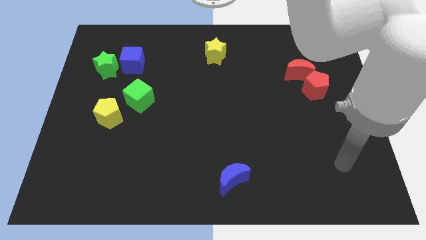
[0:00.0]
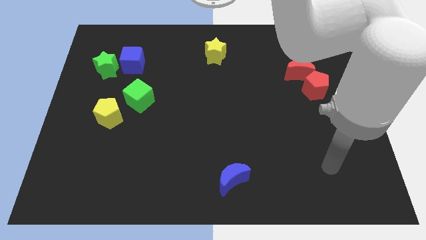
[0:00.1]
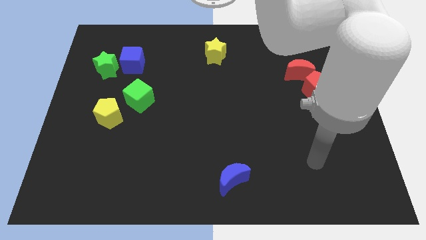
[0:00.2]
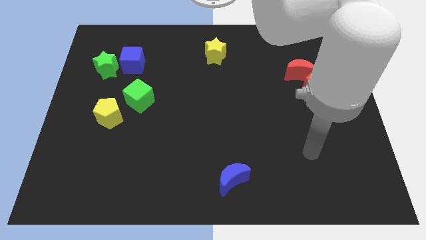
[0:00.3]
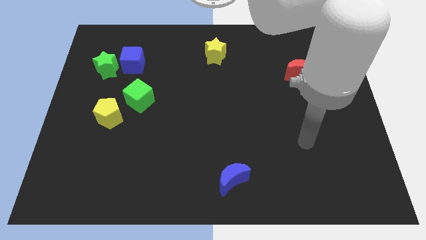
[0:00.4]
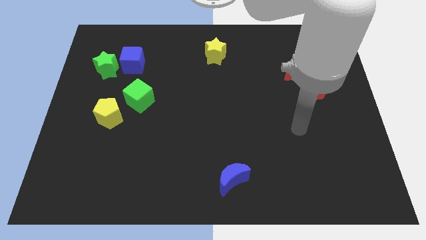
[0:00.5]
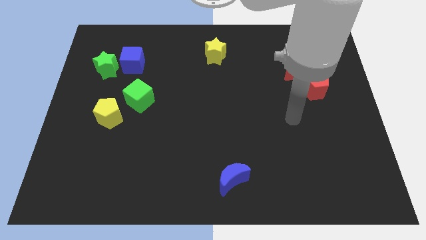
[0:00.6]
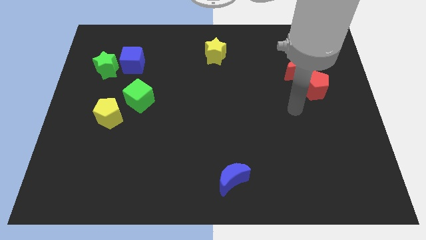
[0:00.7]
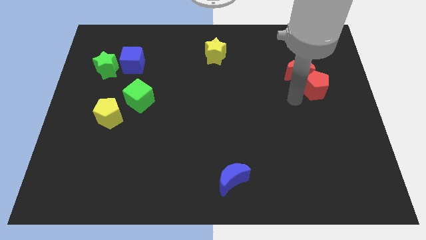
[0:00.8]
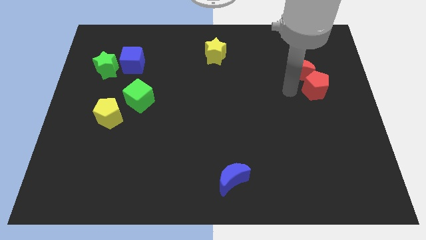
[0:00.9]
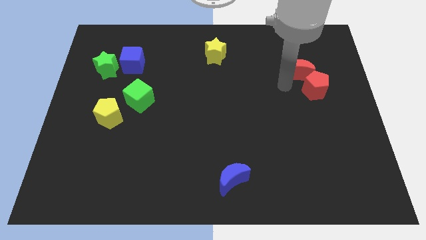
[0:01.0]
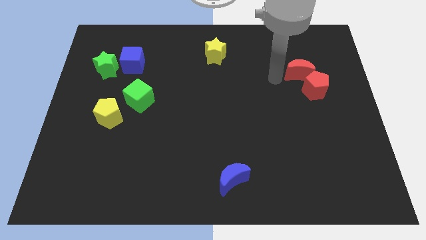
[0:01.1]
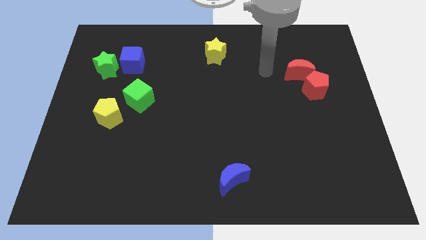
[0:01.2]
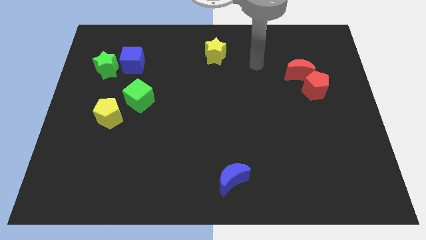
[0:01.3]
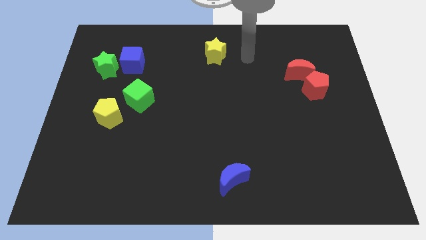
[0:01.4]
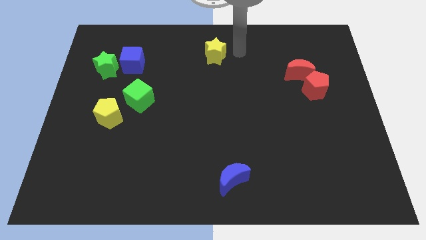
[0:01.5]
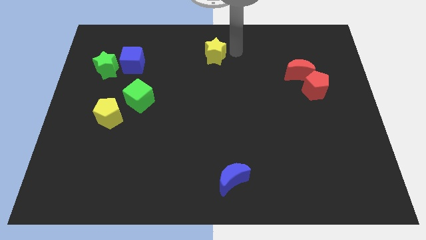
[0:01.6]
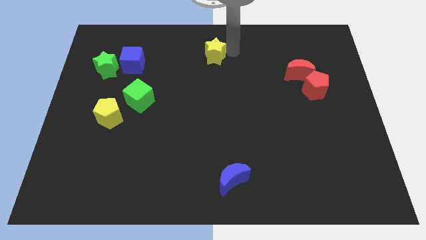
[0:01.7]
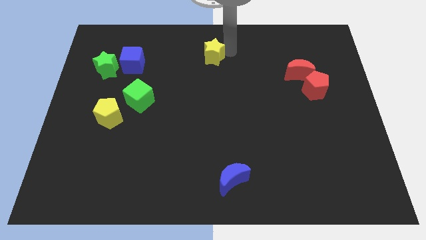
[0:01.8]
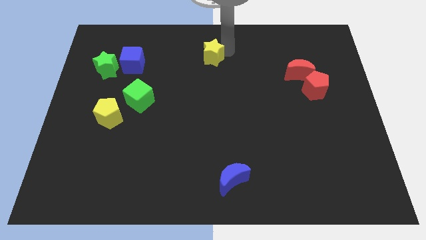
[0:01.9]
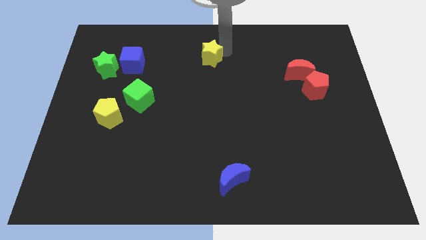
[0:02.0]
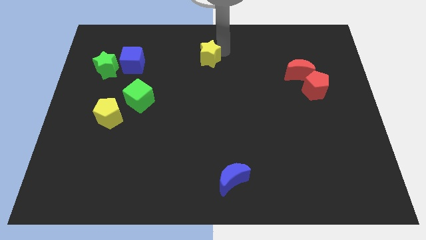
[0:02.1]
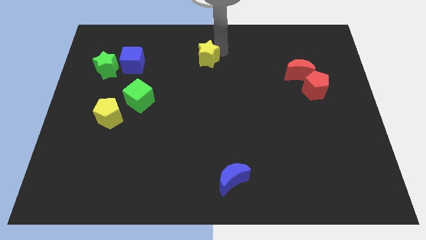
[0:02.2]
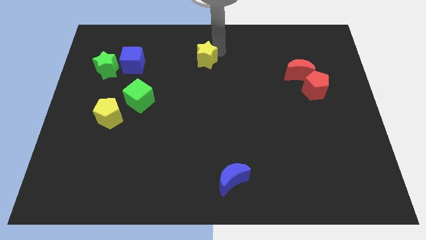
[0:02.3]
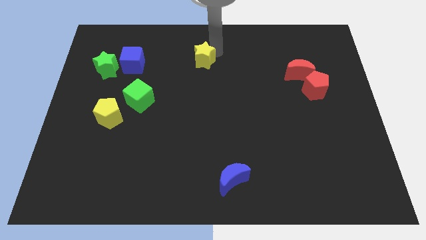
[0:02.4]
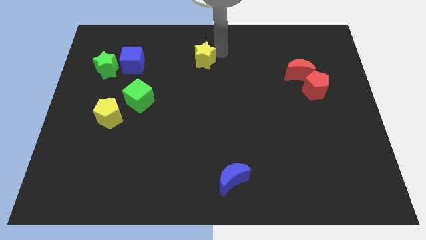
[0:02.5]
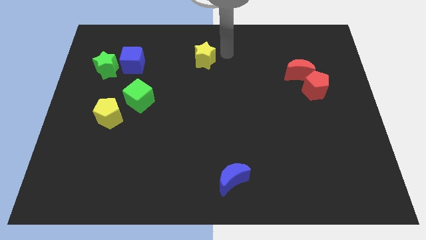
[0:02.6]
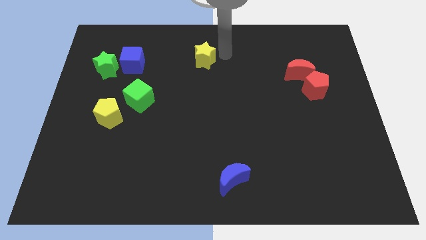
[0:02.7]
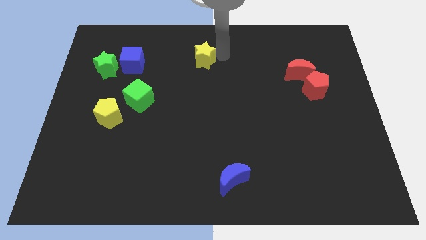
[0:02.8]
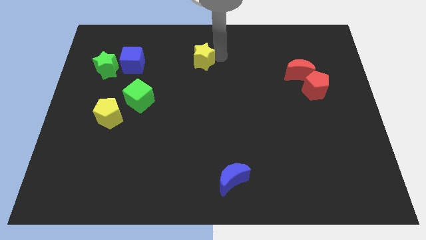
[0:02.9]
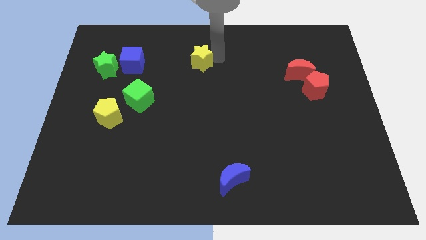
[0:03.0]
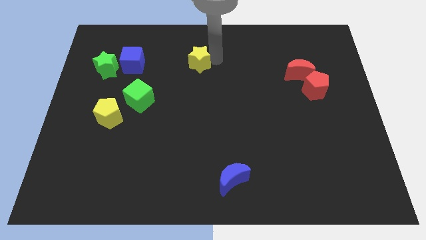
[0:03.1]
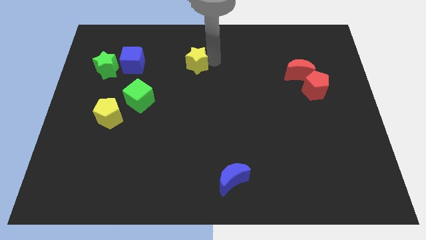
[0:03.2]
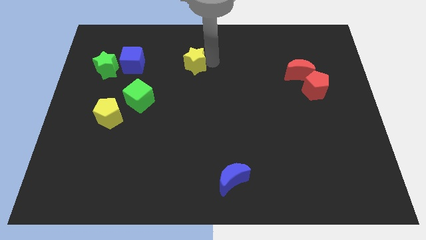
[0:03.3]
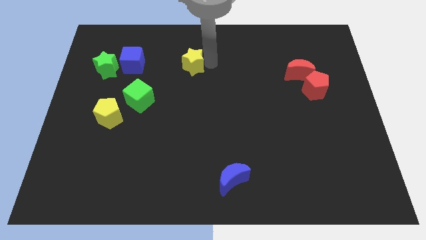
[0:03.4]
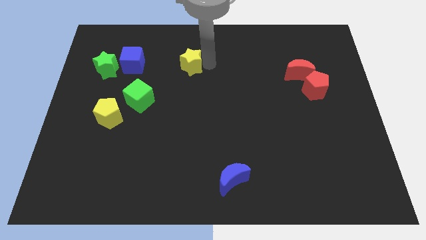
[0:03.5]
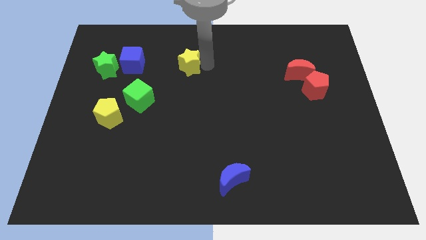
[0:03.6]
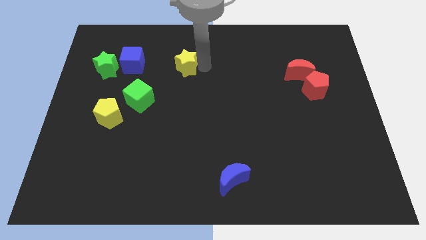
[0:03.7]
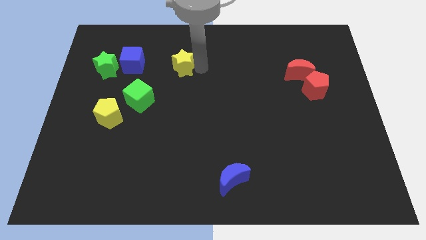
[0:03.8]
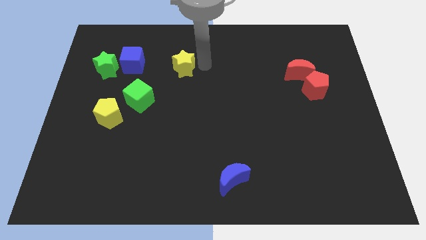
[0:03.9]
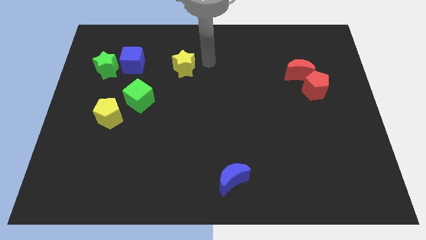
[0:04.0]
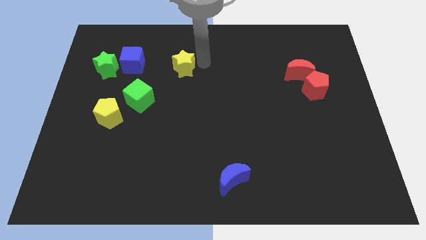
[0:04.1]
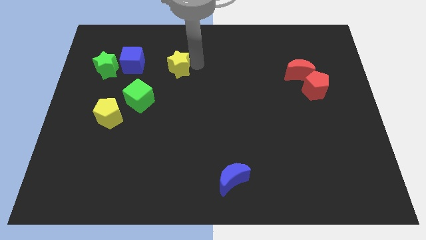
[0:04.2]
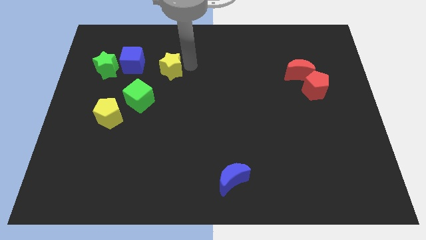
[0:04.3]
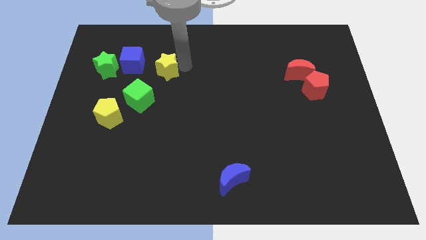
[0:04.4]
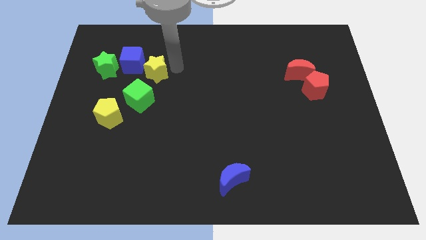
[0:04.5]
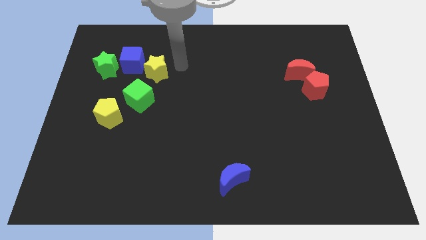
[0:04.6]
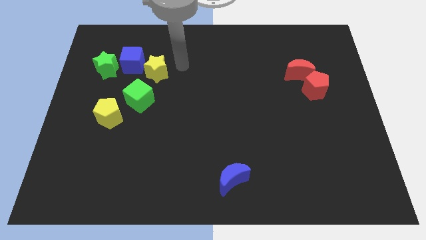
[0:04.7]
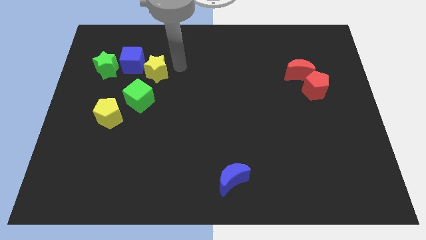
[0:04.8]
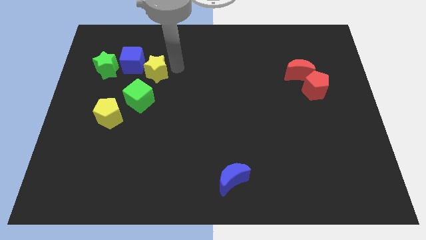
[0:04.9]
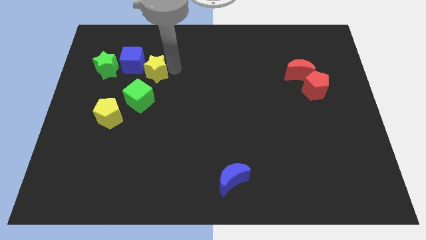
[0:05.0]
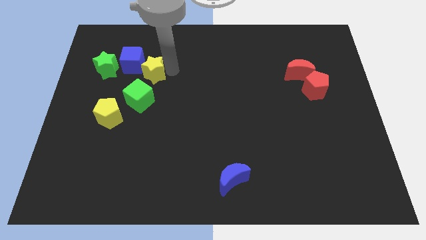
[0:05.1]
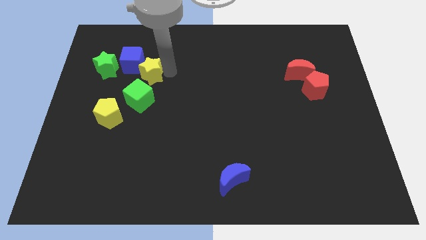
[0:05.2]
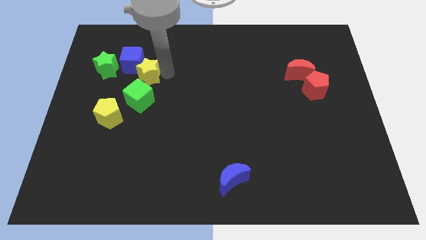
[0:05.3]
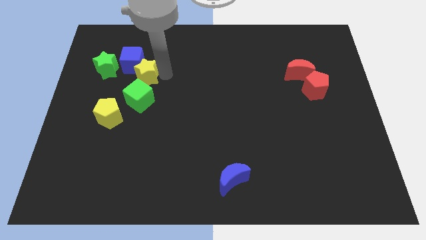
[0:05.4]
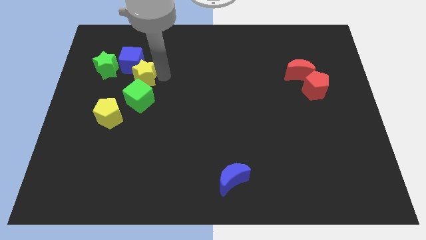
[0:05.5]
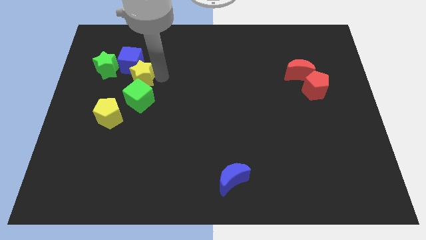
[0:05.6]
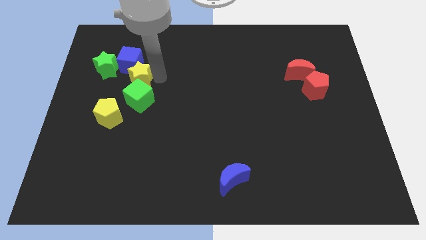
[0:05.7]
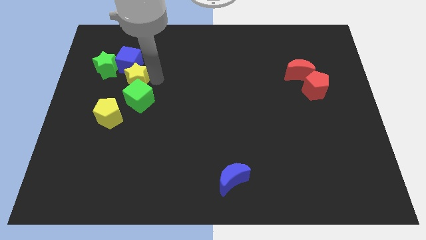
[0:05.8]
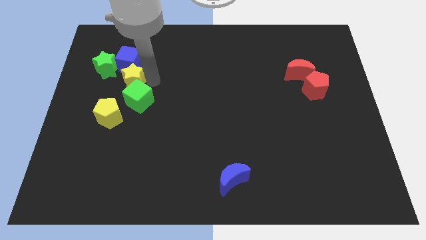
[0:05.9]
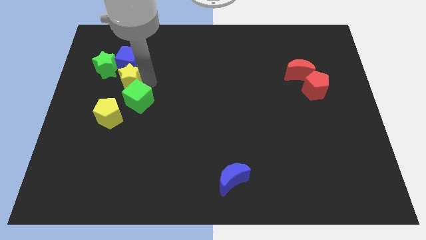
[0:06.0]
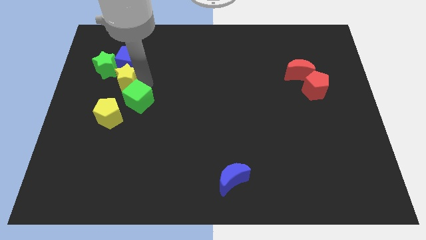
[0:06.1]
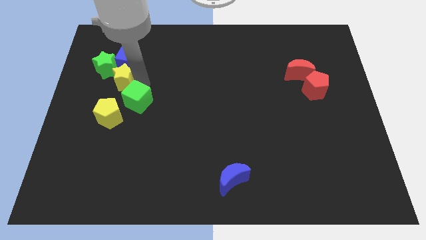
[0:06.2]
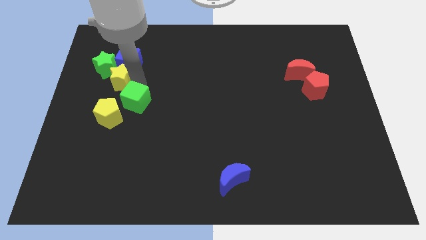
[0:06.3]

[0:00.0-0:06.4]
put the yellow star to the green star

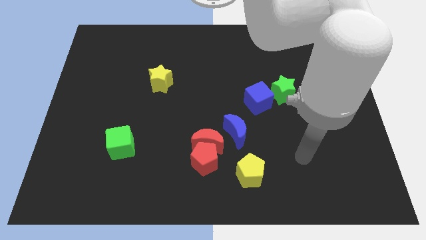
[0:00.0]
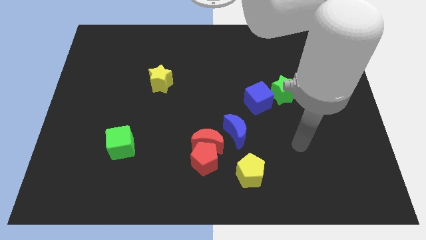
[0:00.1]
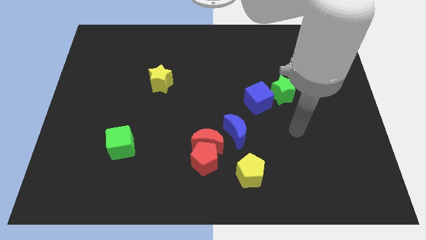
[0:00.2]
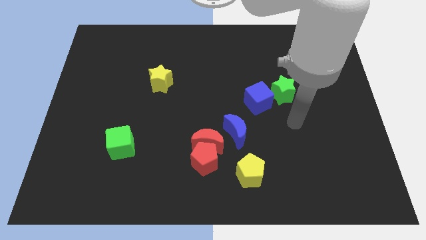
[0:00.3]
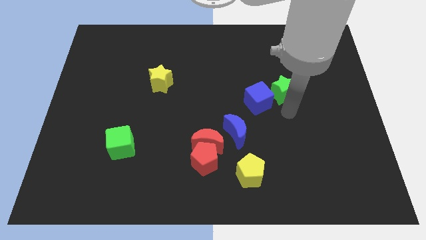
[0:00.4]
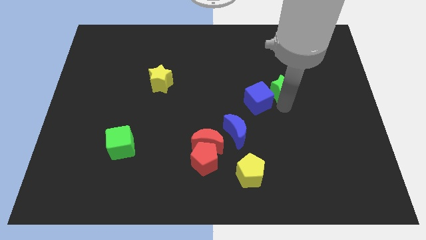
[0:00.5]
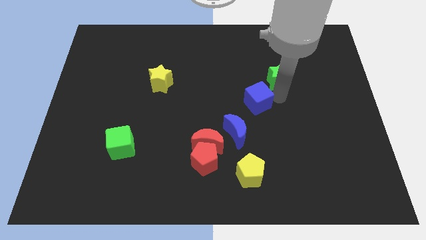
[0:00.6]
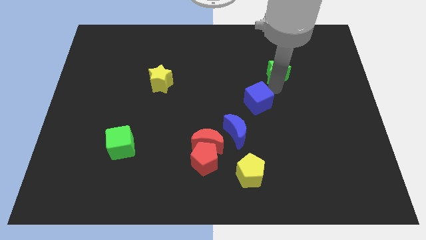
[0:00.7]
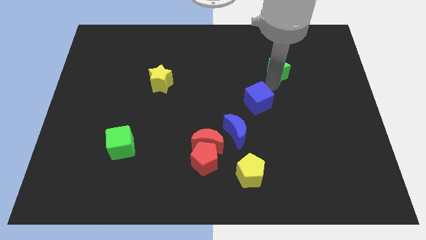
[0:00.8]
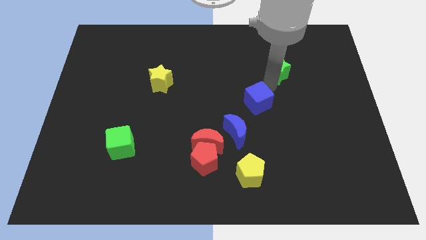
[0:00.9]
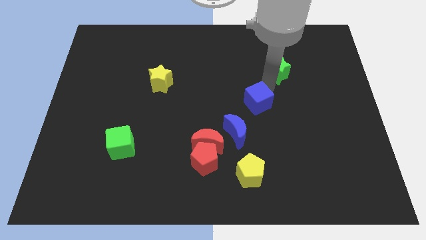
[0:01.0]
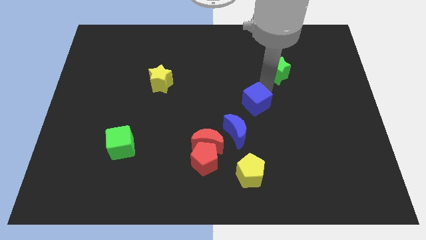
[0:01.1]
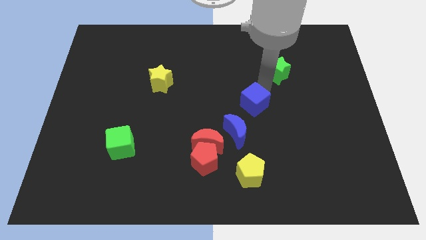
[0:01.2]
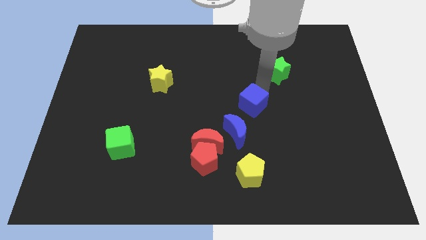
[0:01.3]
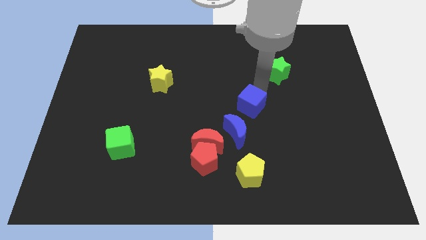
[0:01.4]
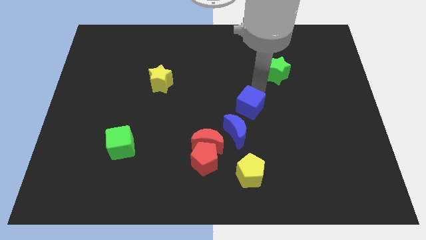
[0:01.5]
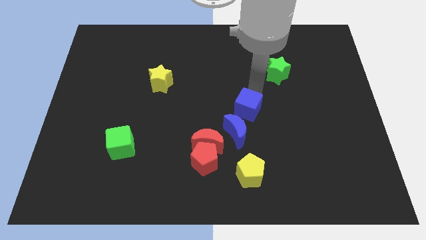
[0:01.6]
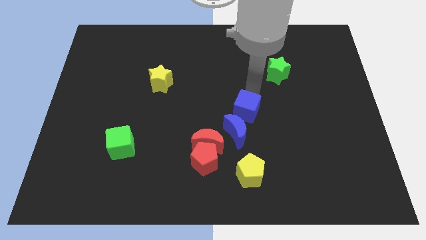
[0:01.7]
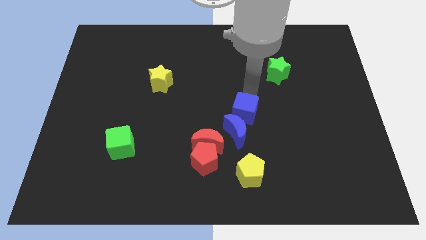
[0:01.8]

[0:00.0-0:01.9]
put the blue cube towards the blue moon
